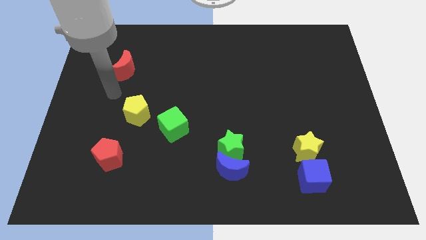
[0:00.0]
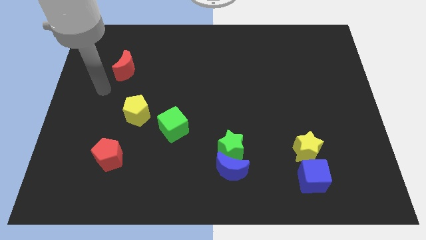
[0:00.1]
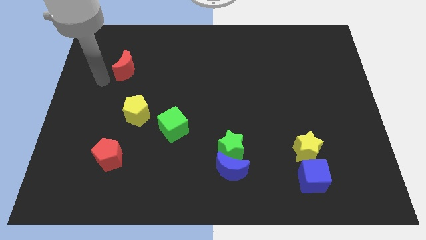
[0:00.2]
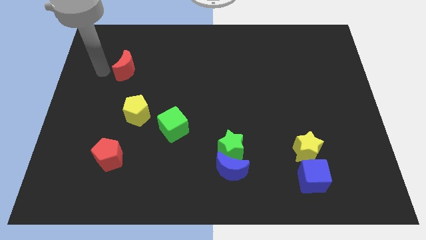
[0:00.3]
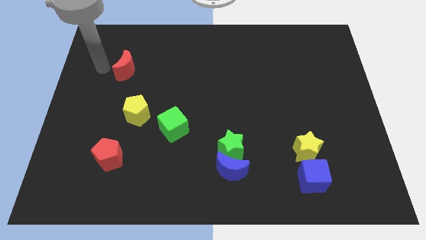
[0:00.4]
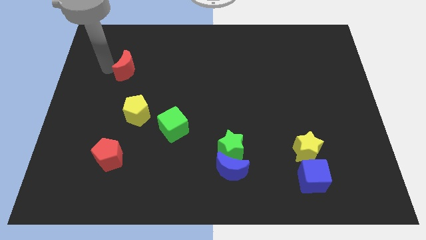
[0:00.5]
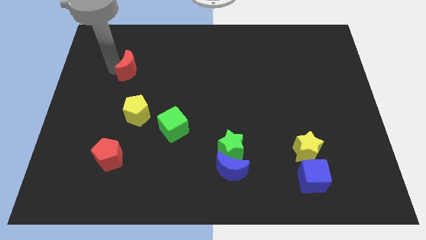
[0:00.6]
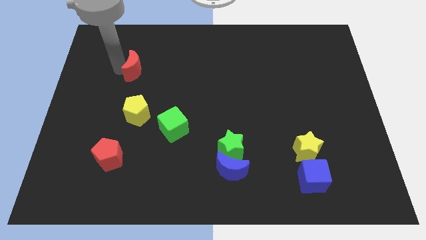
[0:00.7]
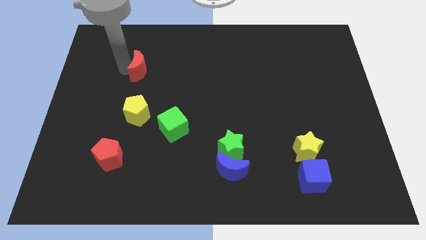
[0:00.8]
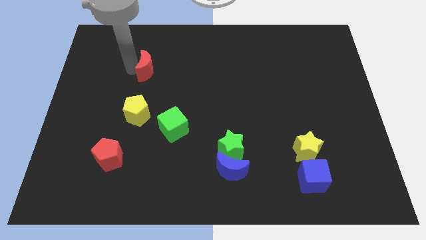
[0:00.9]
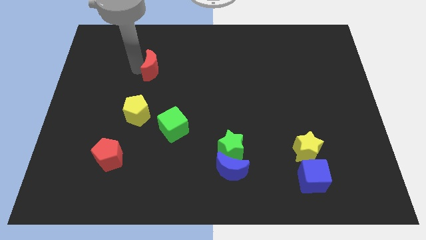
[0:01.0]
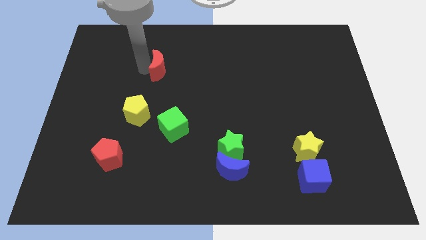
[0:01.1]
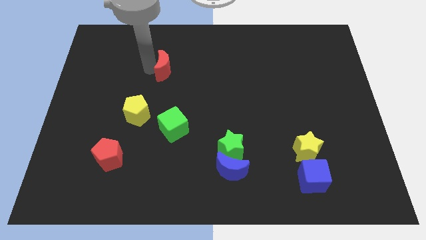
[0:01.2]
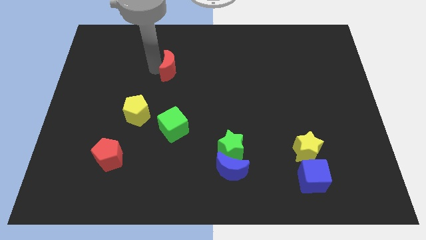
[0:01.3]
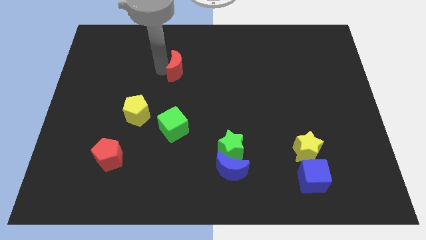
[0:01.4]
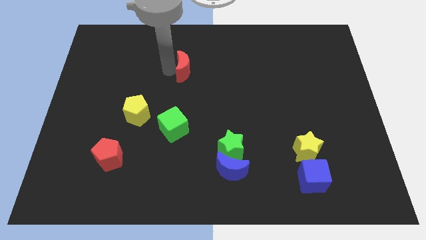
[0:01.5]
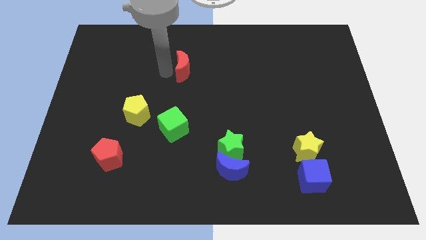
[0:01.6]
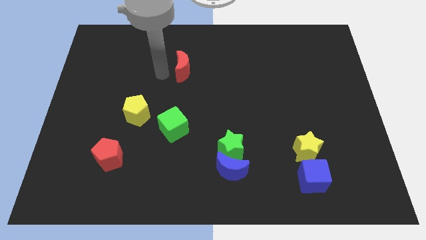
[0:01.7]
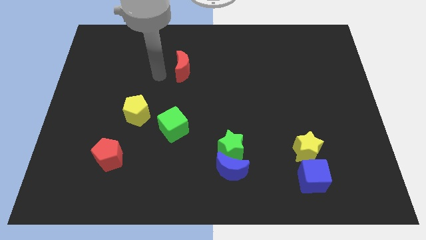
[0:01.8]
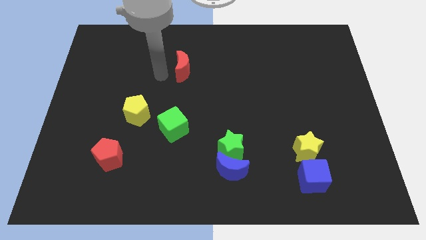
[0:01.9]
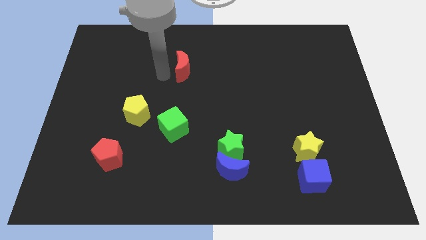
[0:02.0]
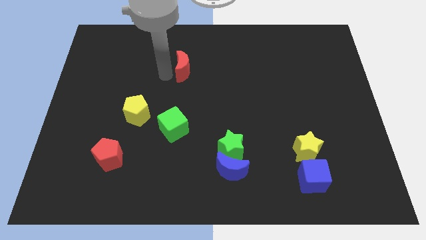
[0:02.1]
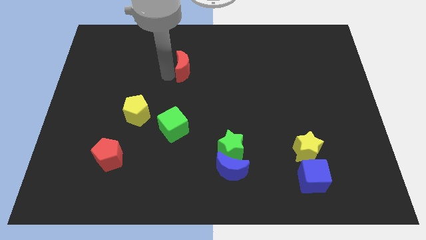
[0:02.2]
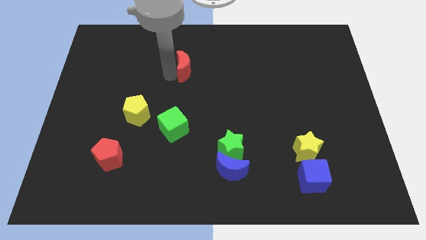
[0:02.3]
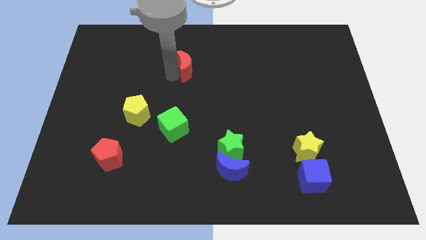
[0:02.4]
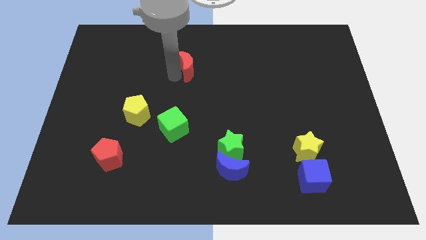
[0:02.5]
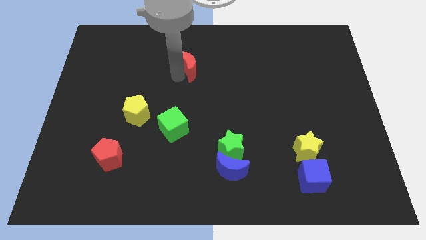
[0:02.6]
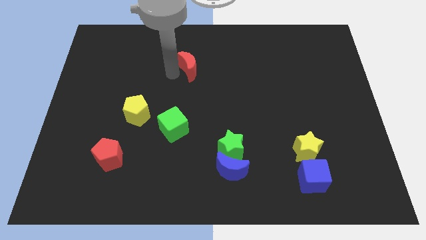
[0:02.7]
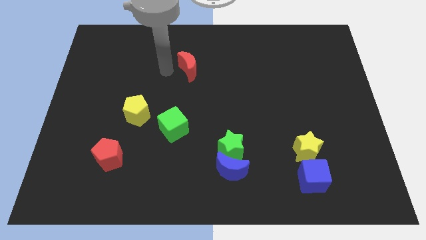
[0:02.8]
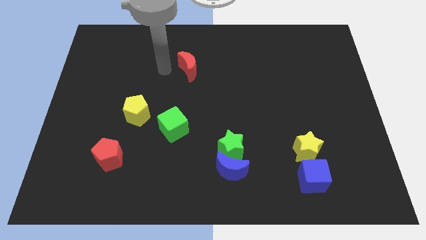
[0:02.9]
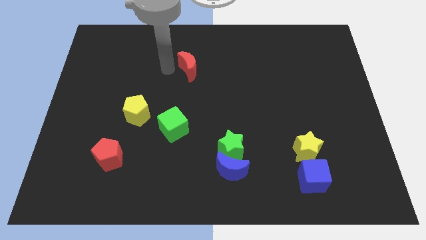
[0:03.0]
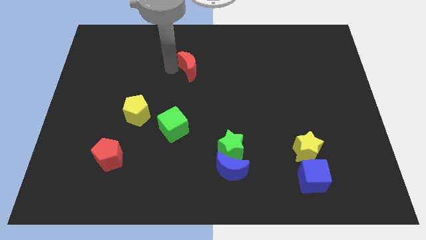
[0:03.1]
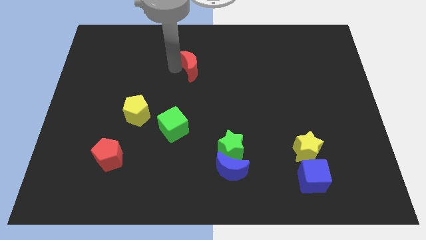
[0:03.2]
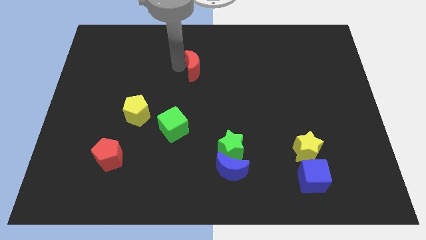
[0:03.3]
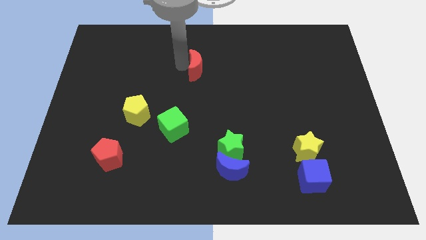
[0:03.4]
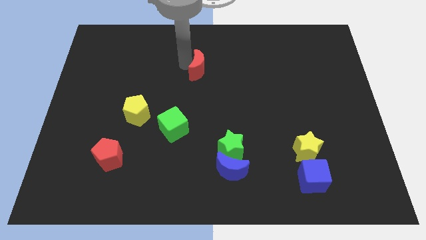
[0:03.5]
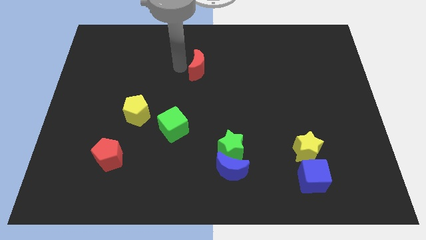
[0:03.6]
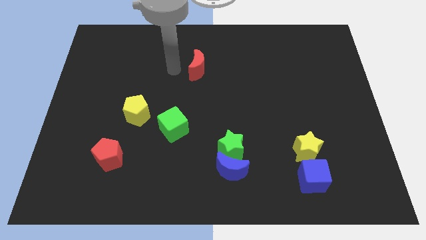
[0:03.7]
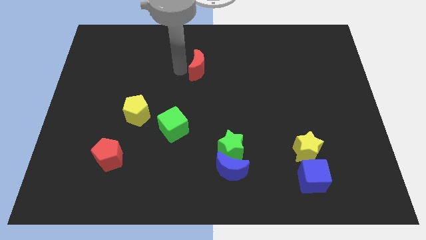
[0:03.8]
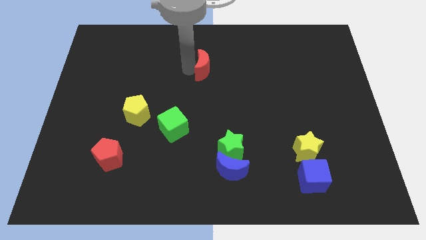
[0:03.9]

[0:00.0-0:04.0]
slide the red moon right

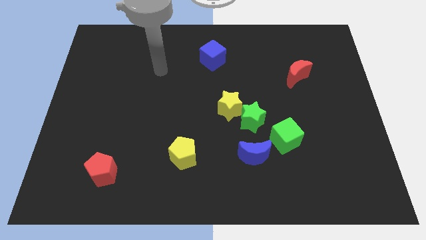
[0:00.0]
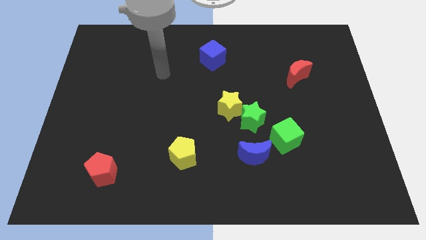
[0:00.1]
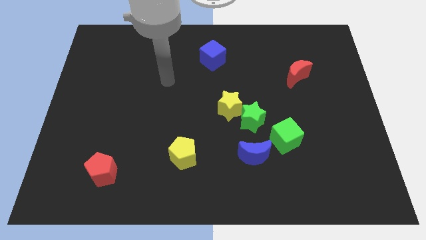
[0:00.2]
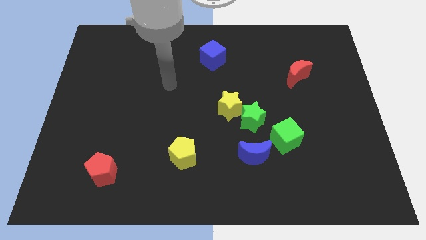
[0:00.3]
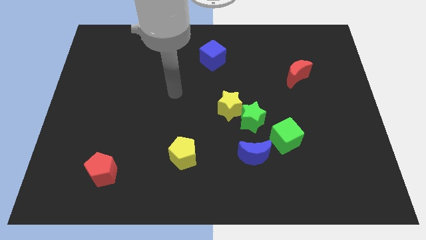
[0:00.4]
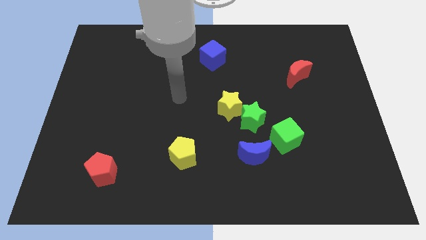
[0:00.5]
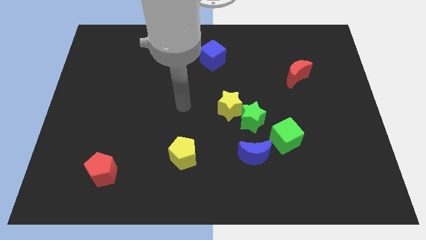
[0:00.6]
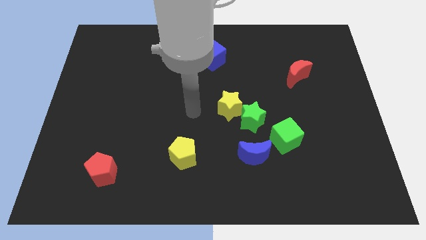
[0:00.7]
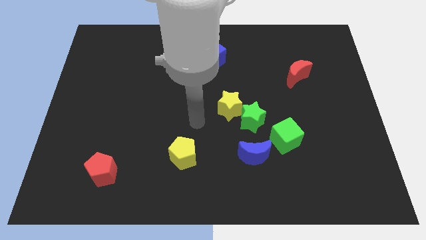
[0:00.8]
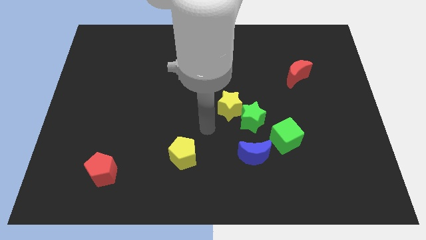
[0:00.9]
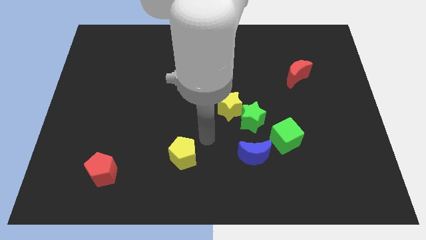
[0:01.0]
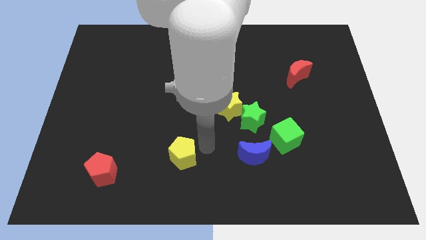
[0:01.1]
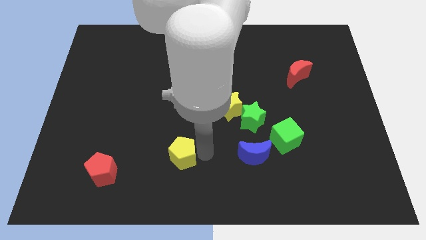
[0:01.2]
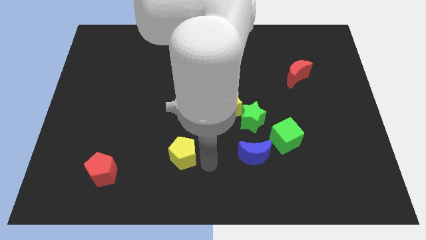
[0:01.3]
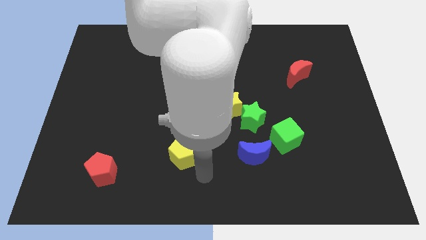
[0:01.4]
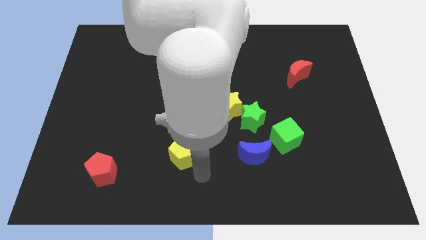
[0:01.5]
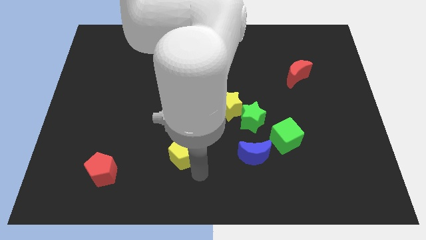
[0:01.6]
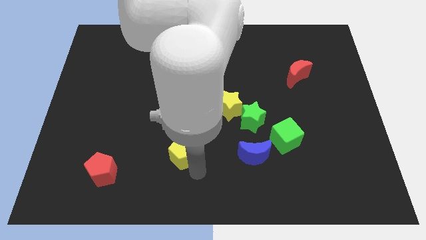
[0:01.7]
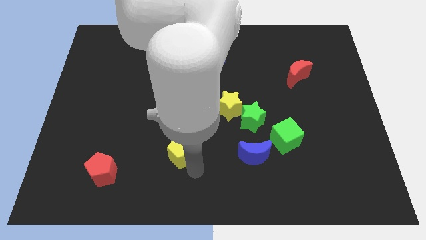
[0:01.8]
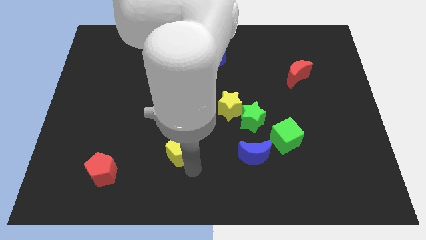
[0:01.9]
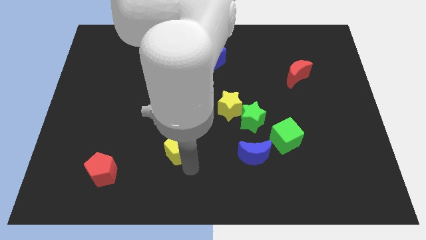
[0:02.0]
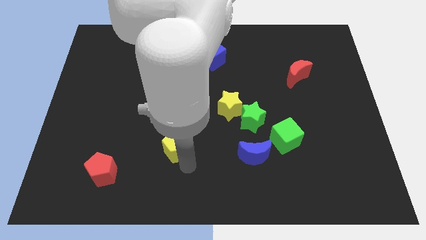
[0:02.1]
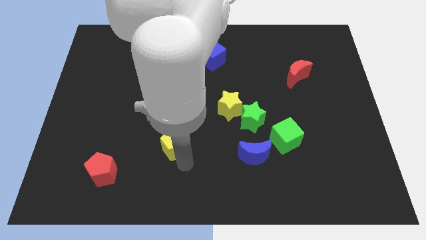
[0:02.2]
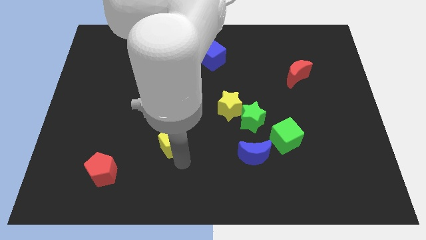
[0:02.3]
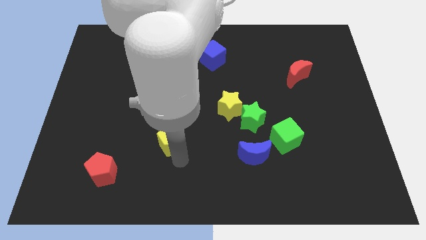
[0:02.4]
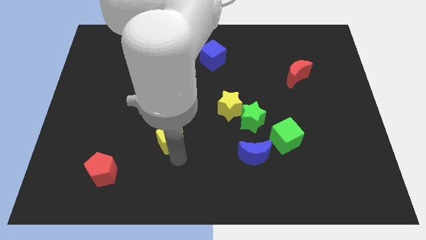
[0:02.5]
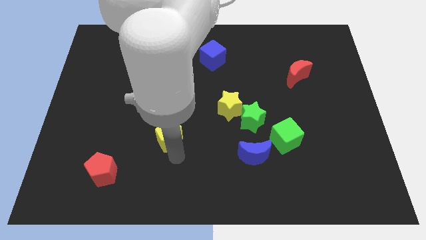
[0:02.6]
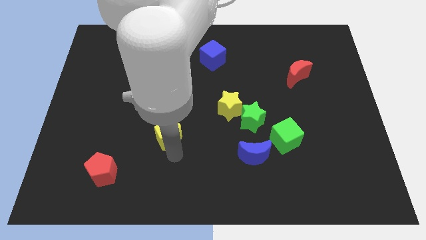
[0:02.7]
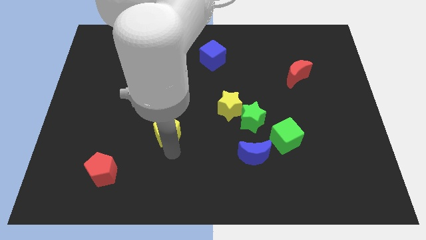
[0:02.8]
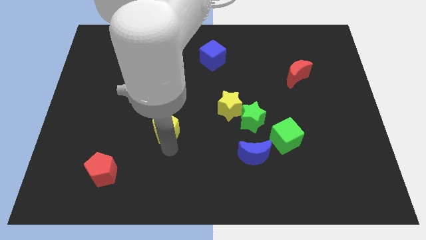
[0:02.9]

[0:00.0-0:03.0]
slide the yellow pentagon up and to the left diagonally somewhat

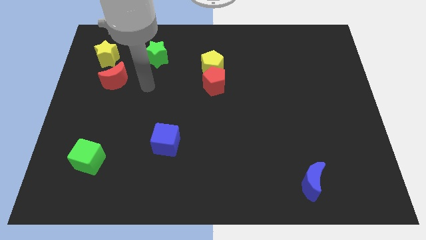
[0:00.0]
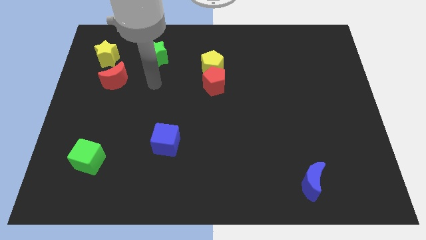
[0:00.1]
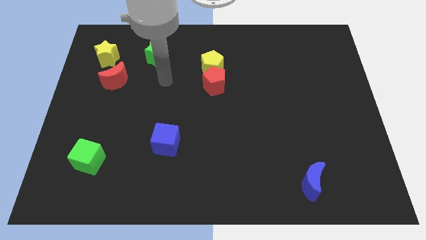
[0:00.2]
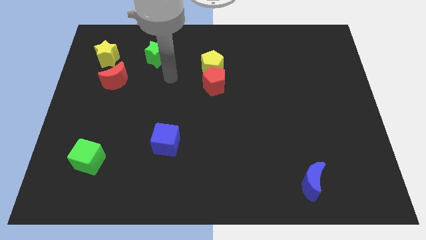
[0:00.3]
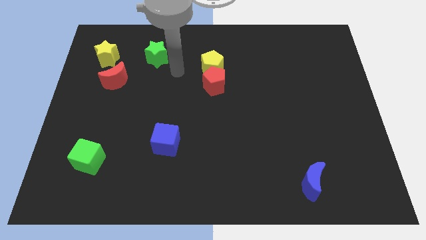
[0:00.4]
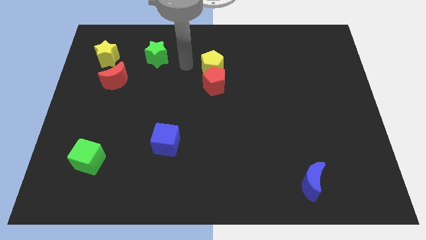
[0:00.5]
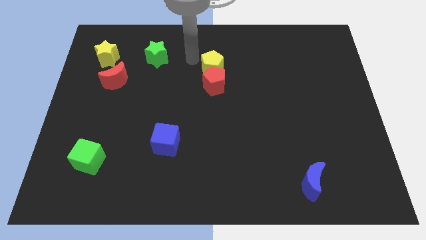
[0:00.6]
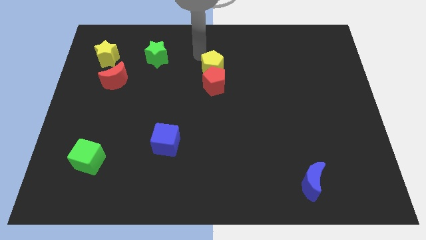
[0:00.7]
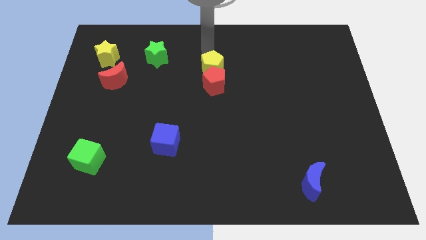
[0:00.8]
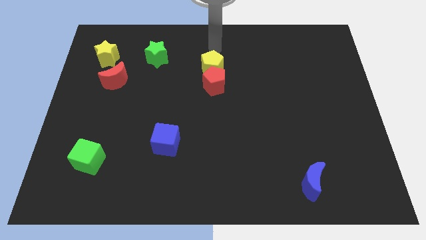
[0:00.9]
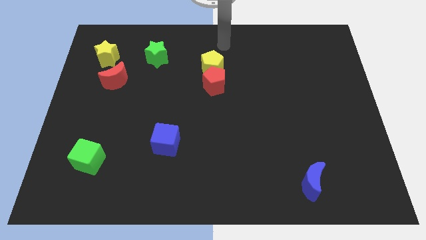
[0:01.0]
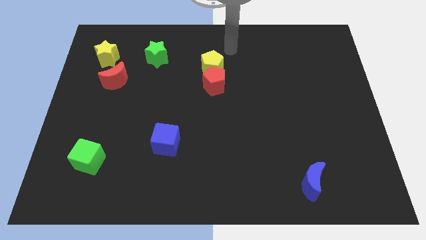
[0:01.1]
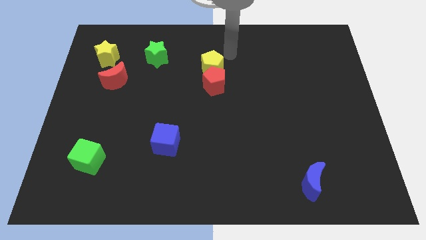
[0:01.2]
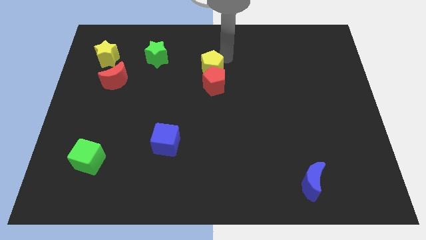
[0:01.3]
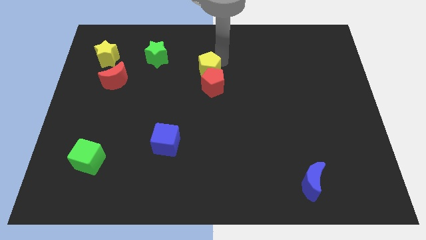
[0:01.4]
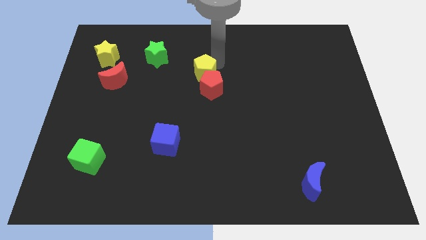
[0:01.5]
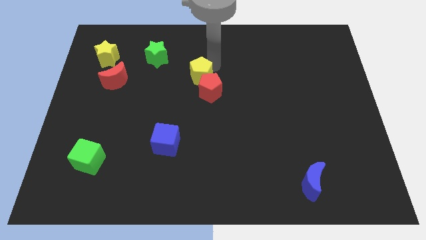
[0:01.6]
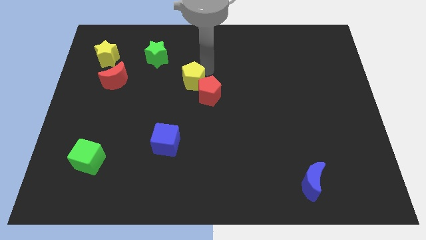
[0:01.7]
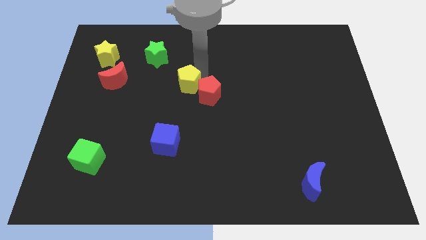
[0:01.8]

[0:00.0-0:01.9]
push the yellow pentagon down and then to the left a bit
